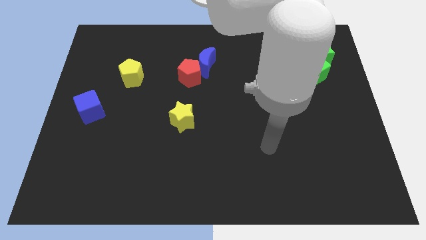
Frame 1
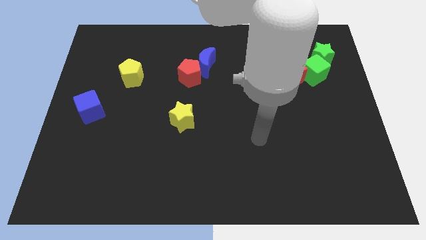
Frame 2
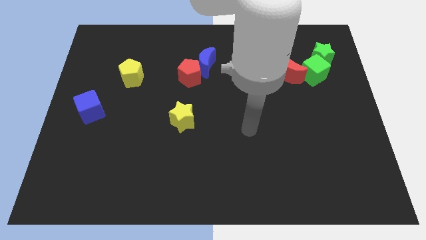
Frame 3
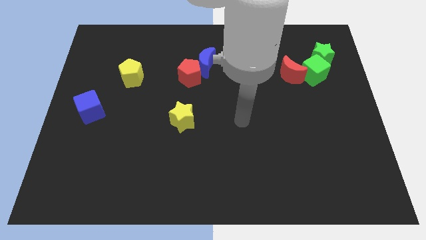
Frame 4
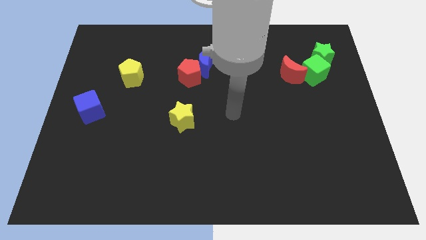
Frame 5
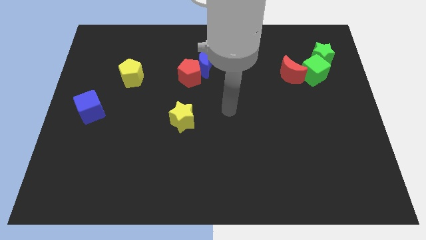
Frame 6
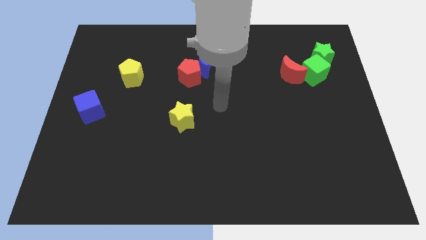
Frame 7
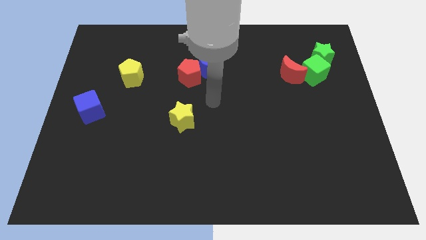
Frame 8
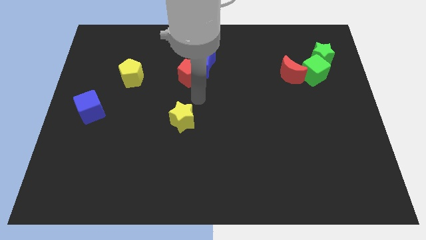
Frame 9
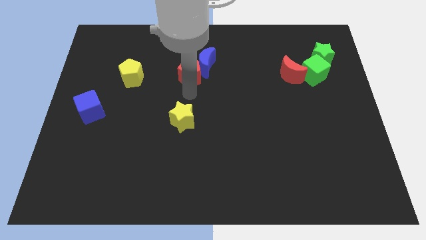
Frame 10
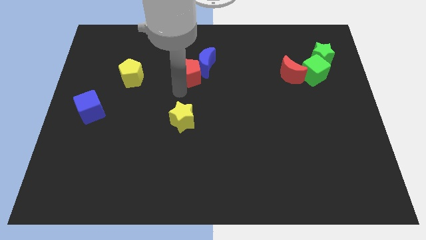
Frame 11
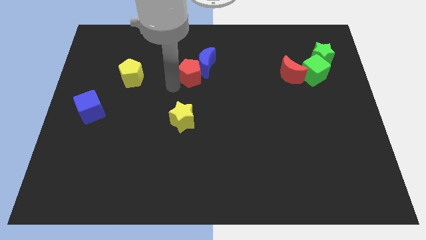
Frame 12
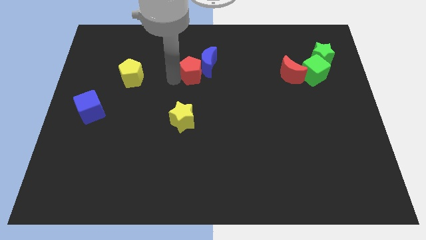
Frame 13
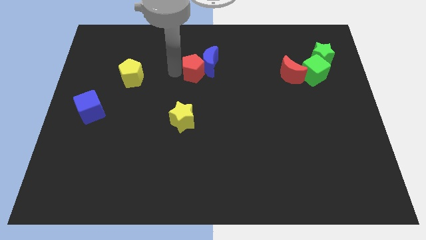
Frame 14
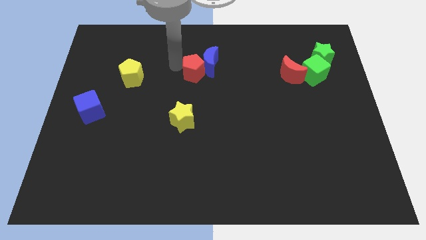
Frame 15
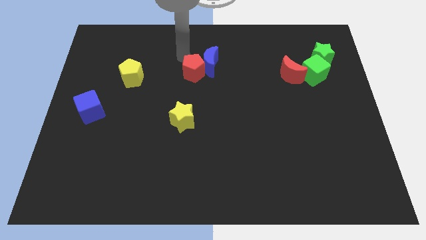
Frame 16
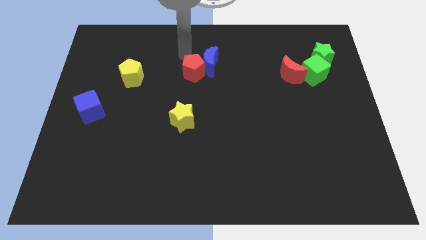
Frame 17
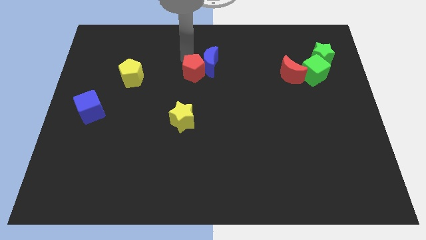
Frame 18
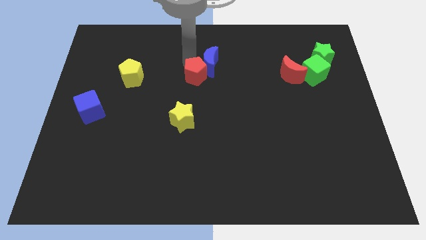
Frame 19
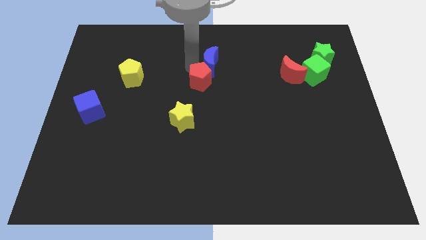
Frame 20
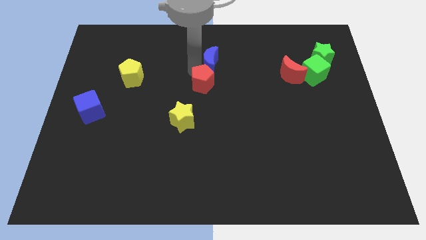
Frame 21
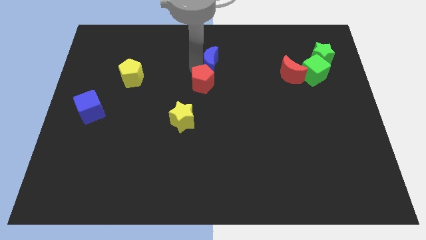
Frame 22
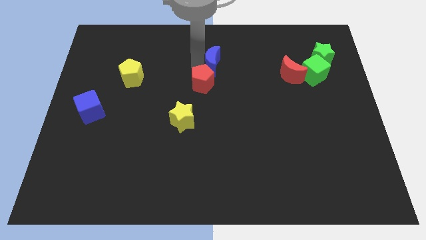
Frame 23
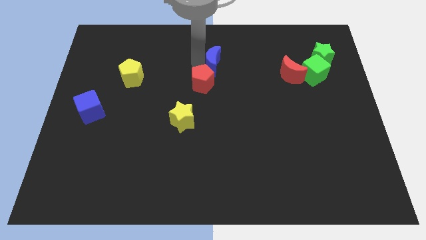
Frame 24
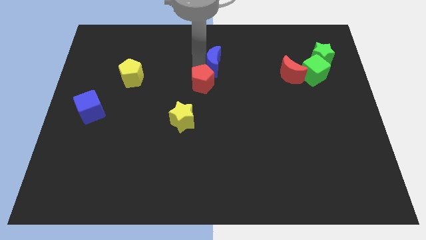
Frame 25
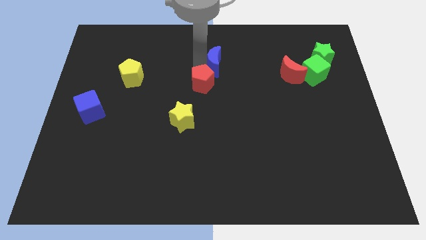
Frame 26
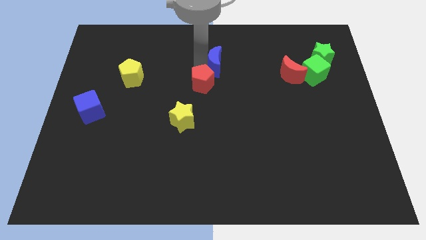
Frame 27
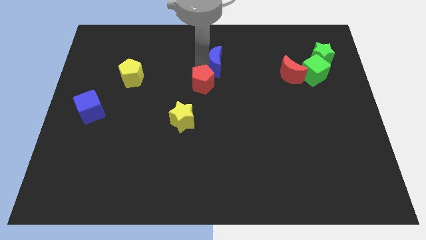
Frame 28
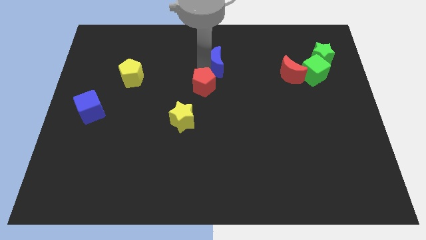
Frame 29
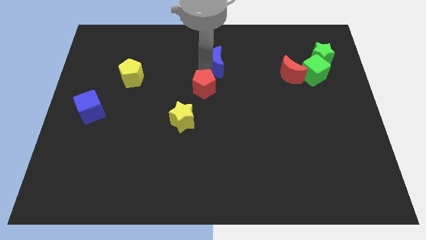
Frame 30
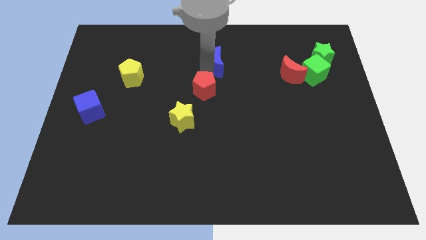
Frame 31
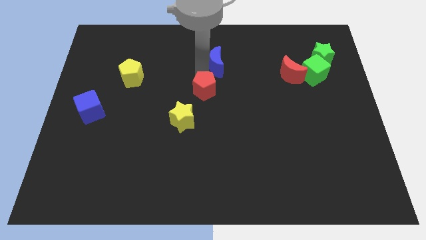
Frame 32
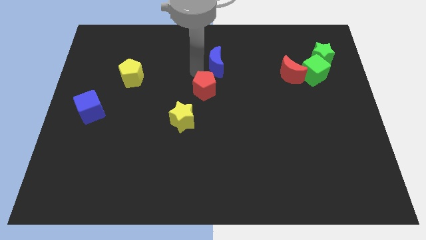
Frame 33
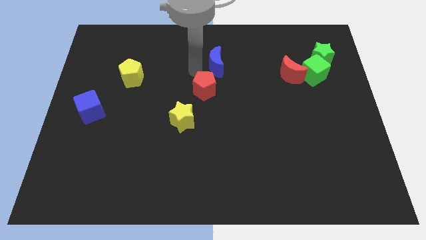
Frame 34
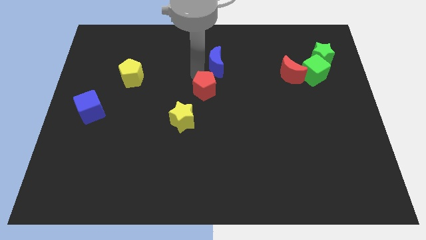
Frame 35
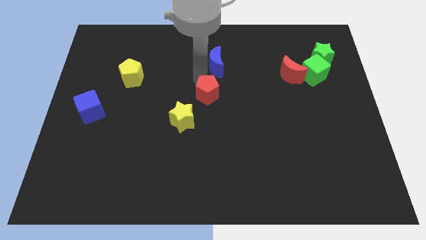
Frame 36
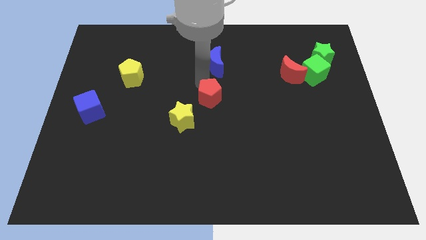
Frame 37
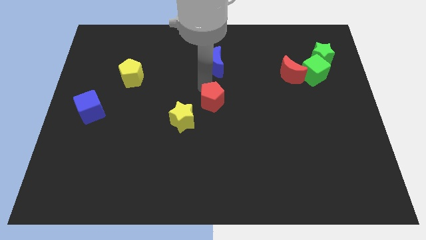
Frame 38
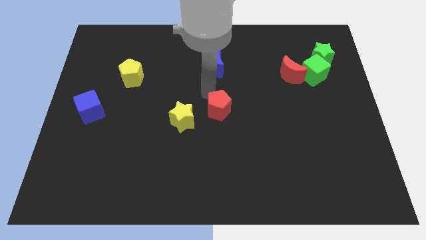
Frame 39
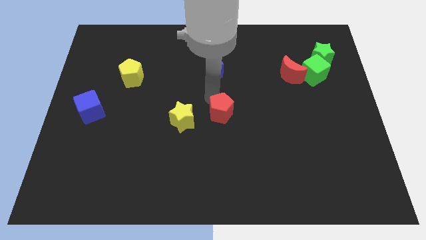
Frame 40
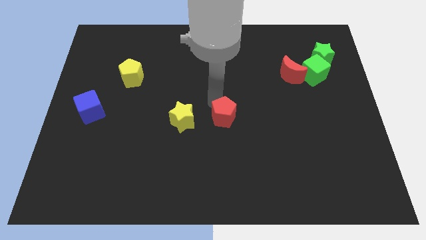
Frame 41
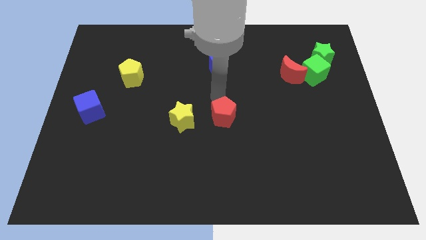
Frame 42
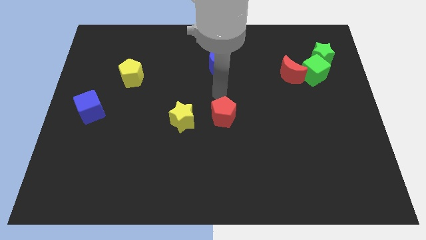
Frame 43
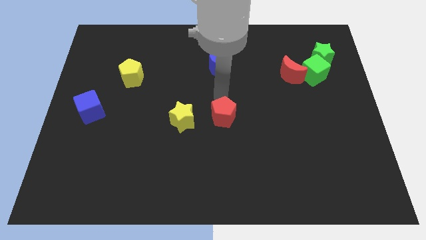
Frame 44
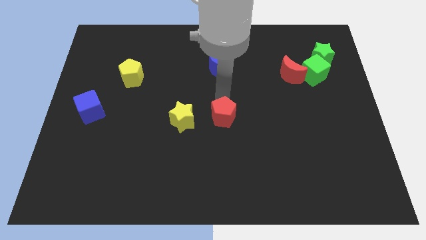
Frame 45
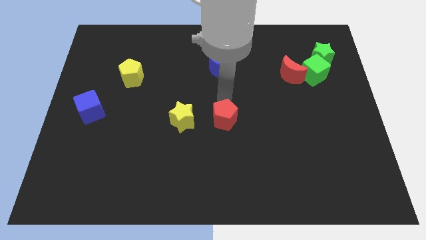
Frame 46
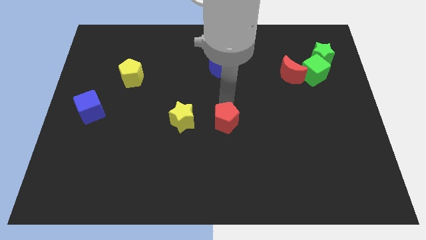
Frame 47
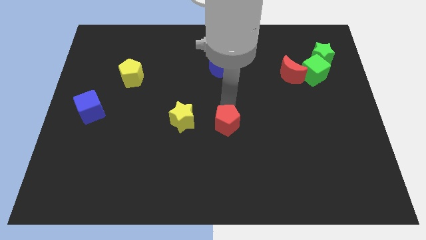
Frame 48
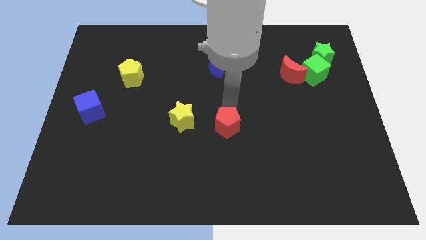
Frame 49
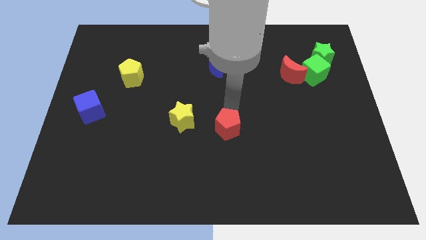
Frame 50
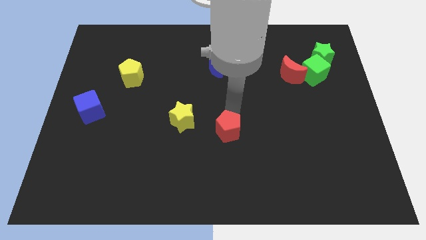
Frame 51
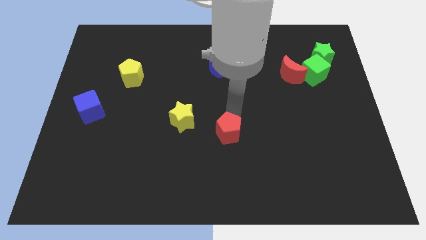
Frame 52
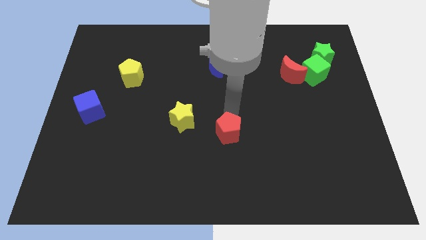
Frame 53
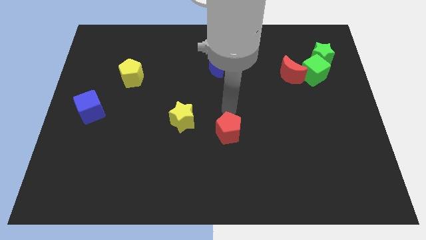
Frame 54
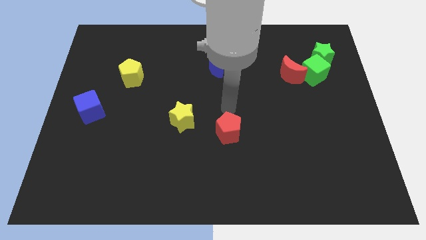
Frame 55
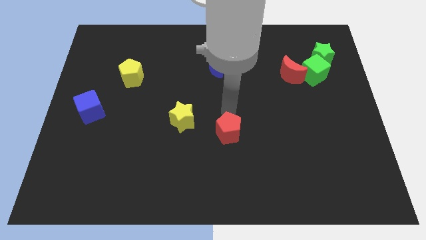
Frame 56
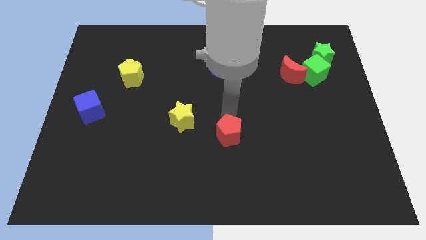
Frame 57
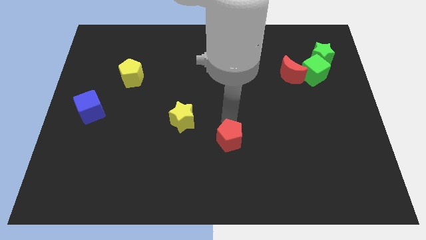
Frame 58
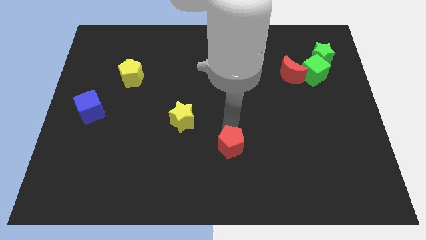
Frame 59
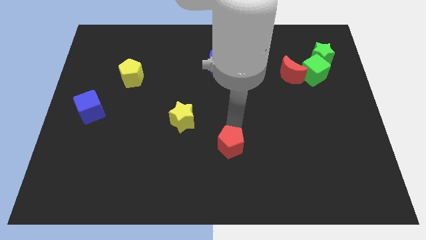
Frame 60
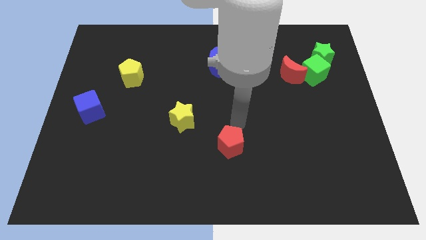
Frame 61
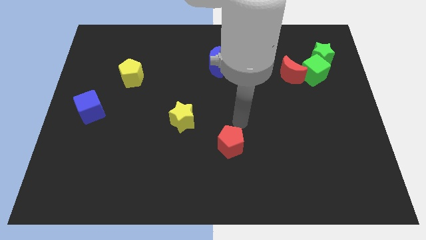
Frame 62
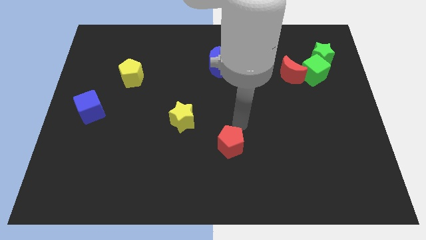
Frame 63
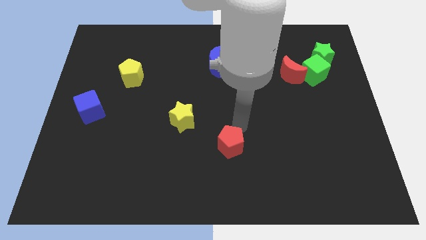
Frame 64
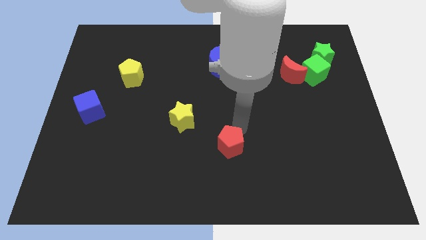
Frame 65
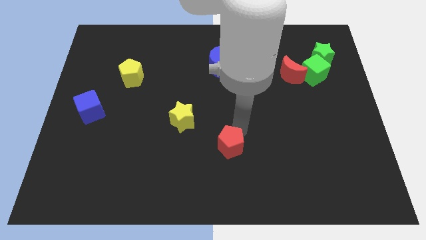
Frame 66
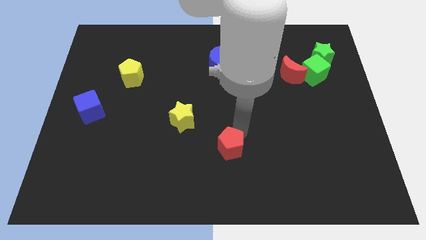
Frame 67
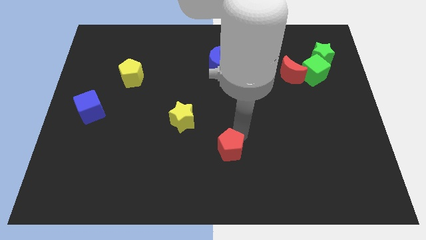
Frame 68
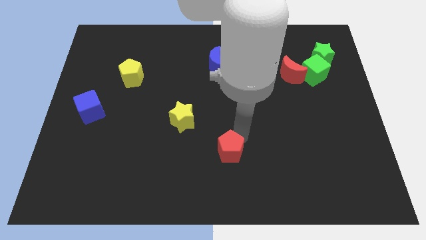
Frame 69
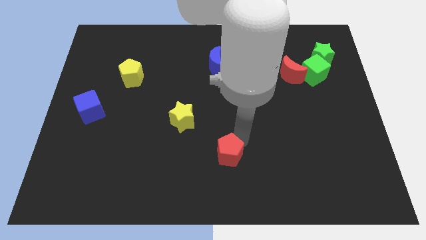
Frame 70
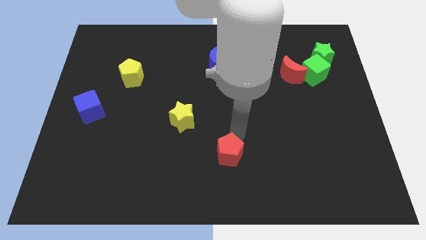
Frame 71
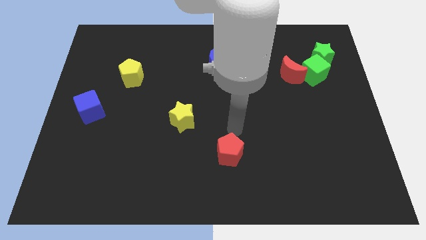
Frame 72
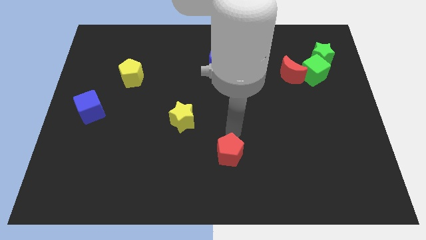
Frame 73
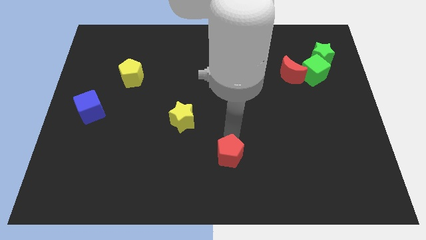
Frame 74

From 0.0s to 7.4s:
put the red pentagon to the bottom side
